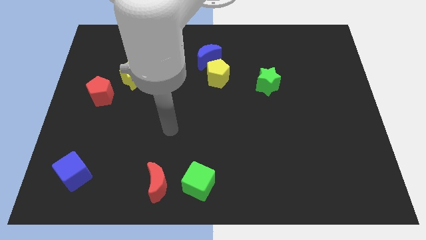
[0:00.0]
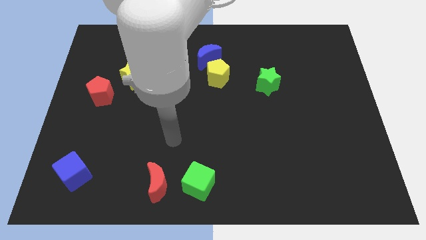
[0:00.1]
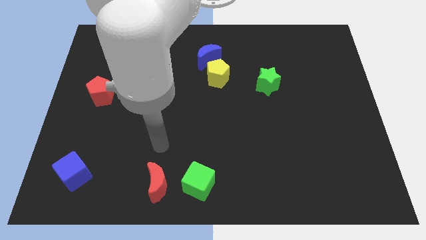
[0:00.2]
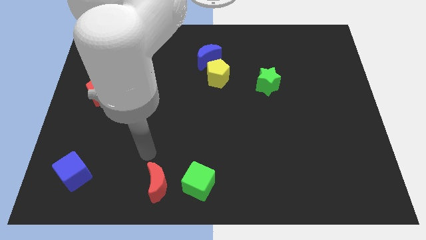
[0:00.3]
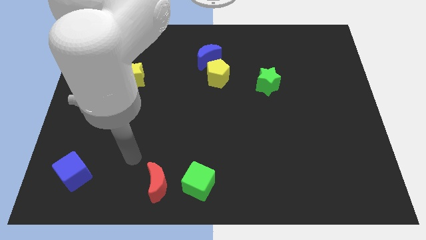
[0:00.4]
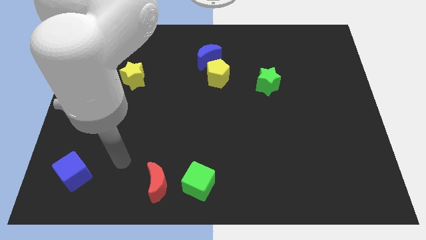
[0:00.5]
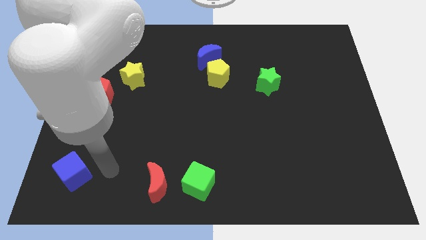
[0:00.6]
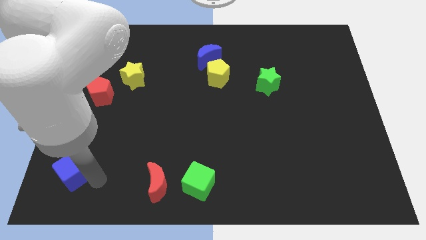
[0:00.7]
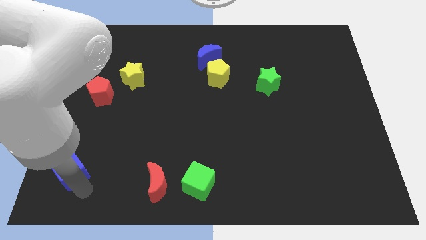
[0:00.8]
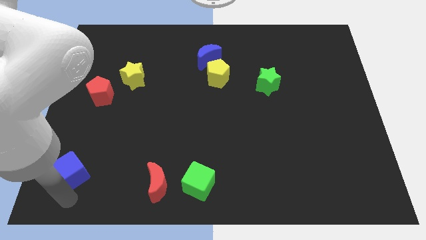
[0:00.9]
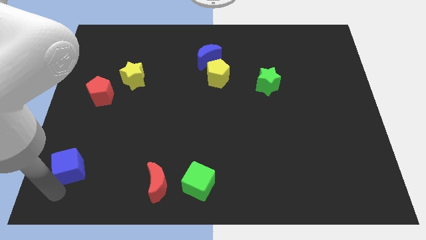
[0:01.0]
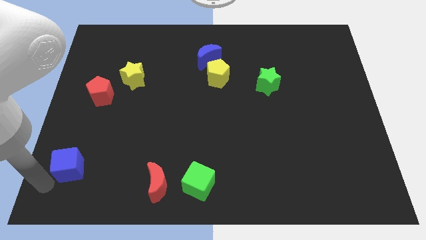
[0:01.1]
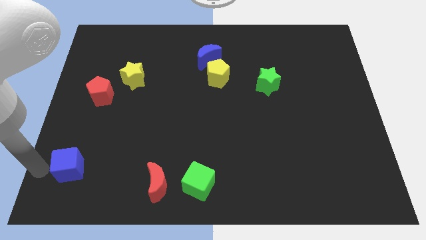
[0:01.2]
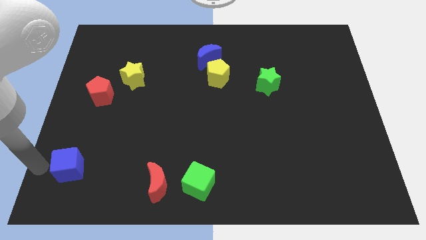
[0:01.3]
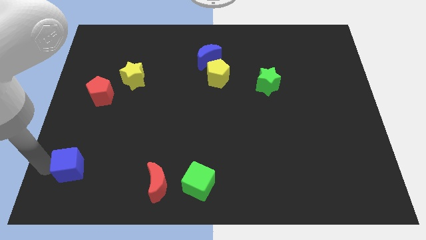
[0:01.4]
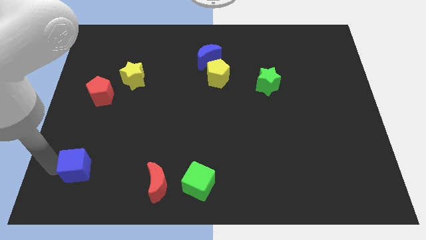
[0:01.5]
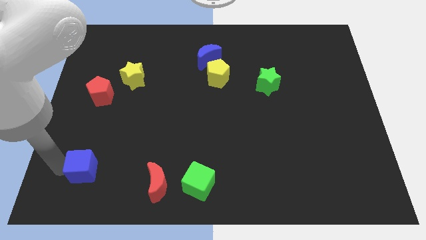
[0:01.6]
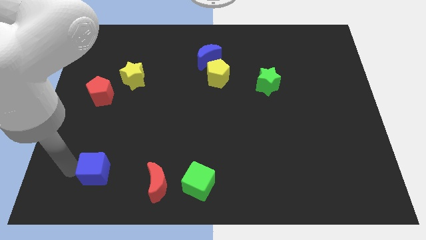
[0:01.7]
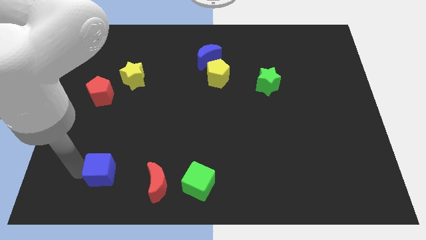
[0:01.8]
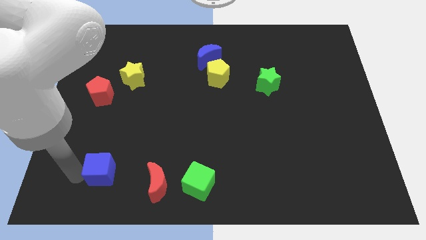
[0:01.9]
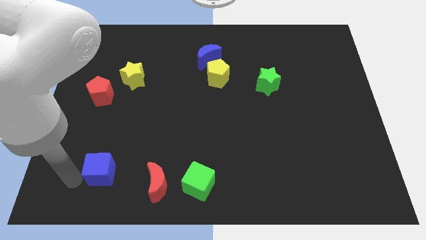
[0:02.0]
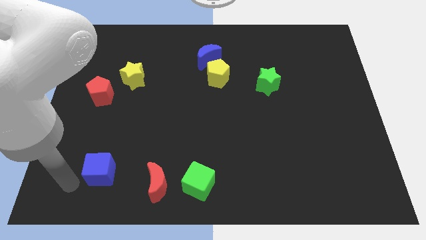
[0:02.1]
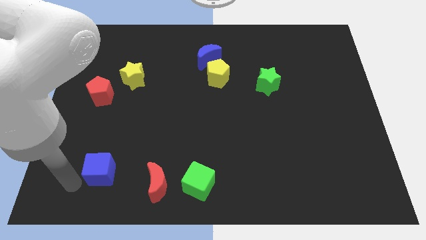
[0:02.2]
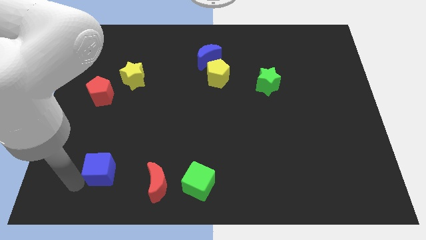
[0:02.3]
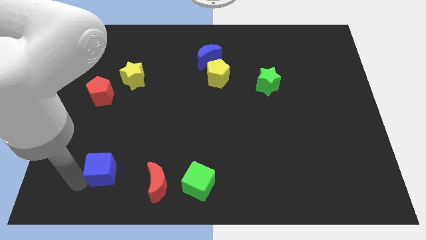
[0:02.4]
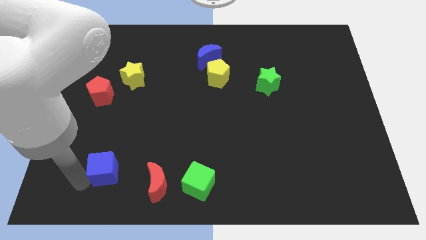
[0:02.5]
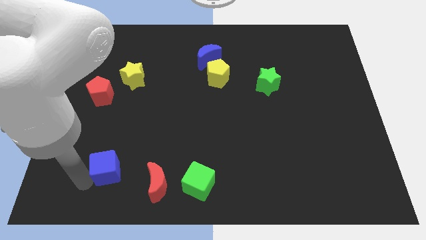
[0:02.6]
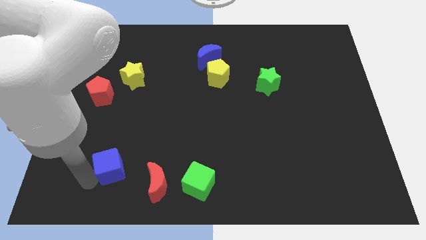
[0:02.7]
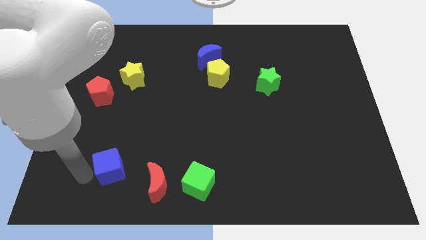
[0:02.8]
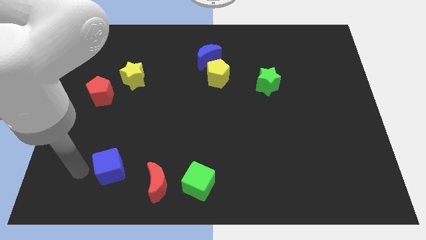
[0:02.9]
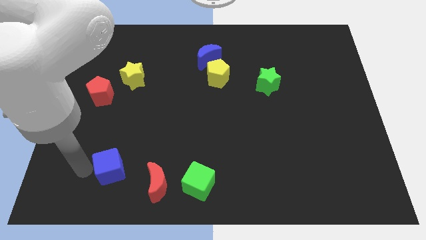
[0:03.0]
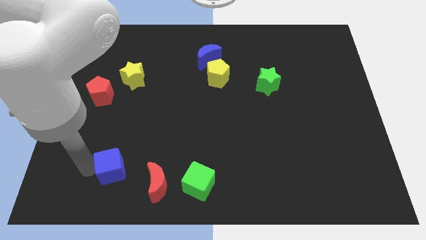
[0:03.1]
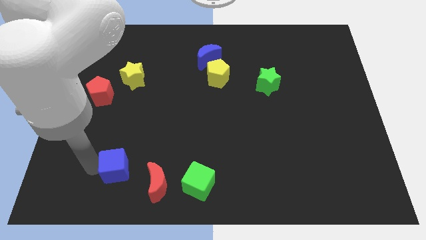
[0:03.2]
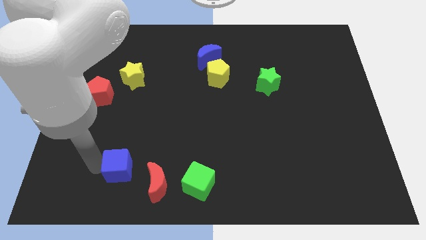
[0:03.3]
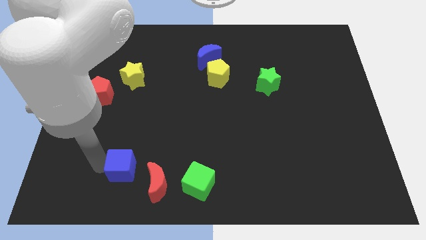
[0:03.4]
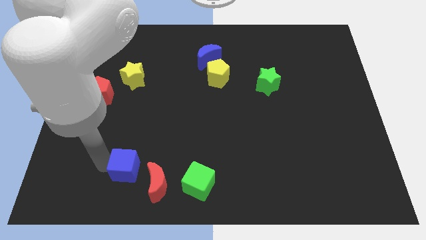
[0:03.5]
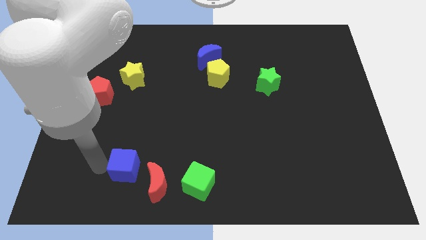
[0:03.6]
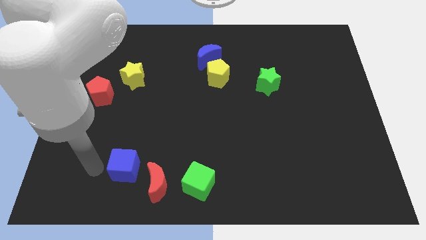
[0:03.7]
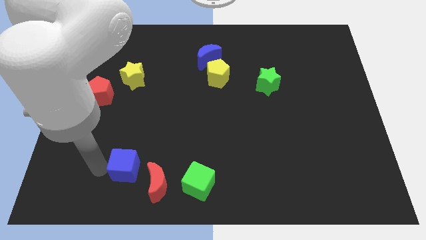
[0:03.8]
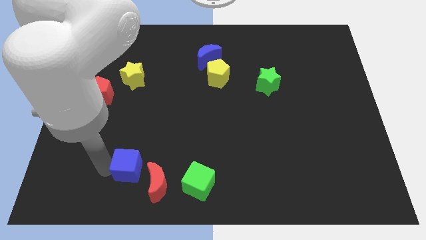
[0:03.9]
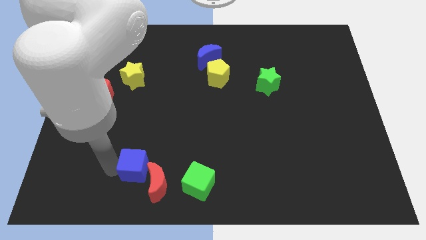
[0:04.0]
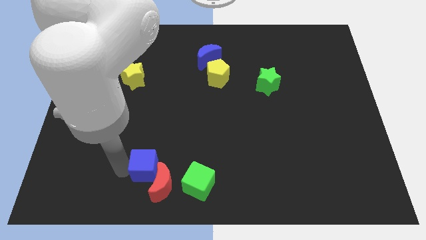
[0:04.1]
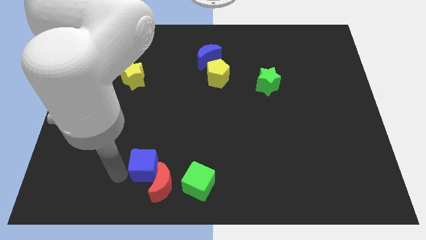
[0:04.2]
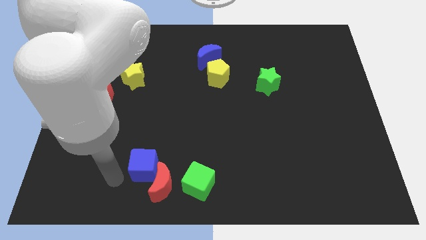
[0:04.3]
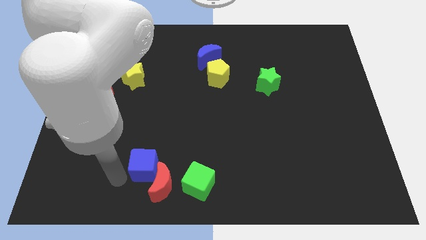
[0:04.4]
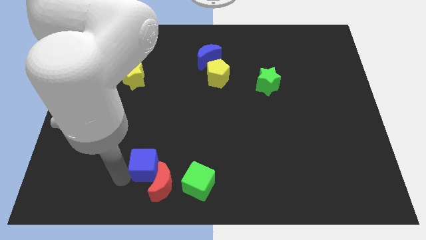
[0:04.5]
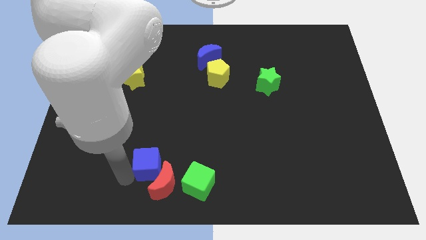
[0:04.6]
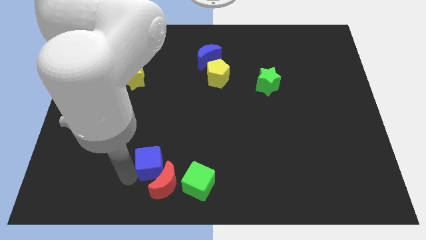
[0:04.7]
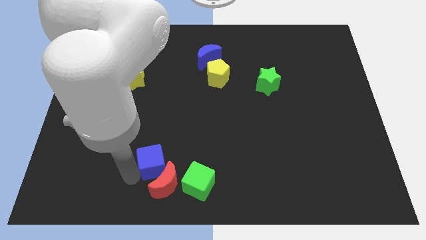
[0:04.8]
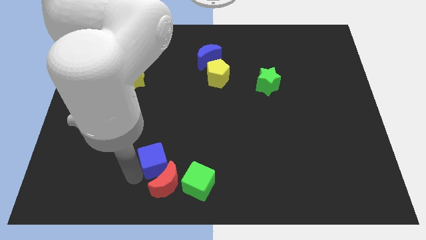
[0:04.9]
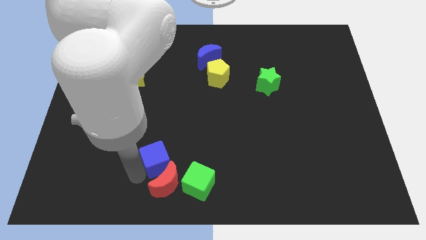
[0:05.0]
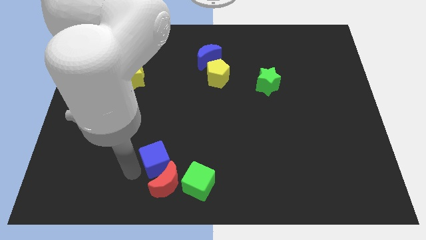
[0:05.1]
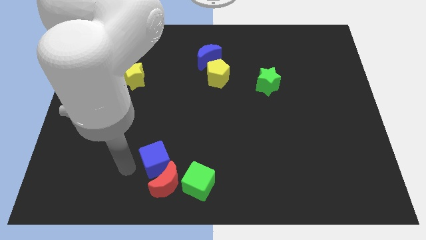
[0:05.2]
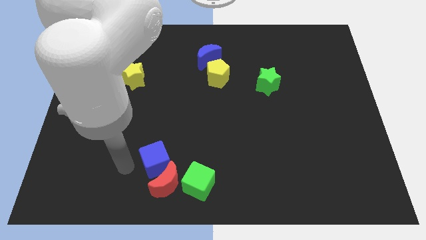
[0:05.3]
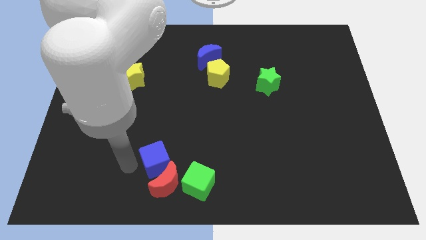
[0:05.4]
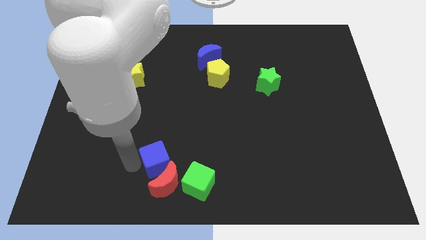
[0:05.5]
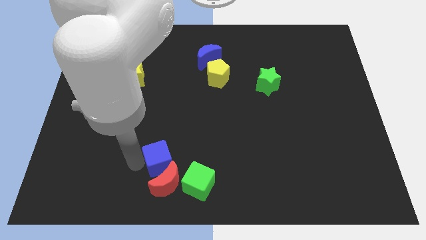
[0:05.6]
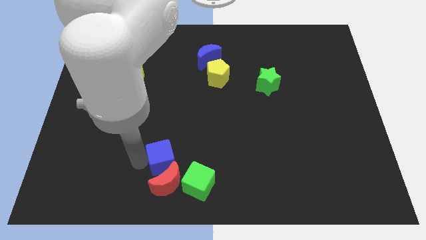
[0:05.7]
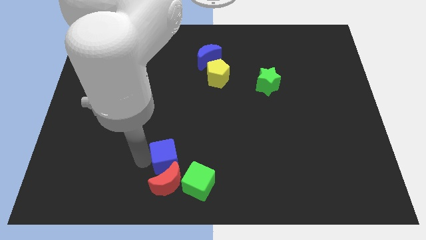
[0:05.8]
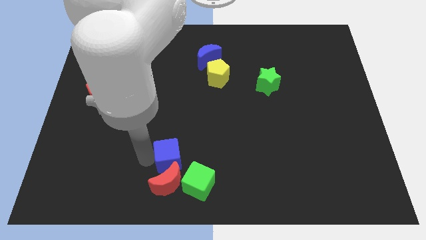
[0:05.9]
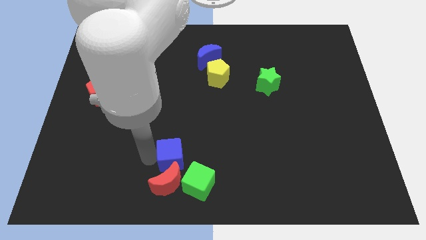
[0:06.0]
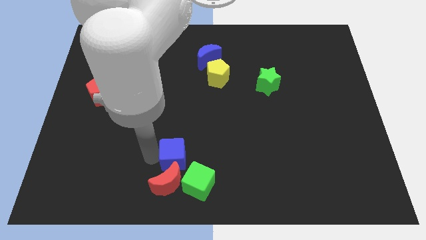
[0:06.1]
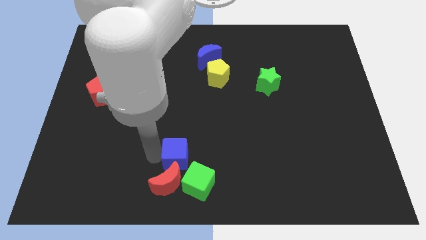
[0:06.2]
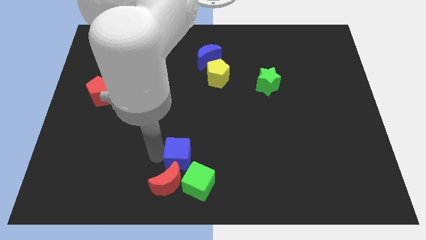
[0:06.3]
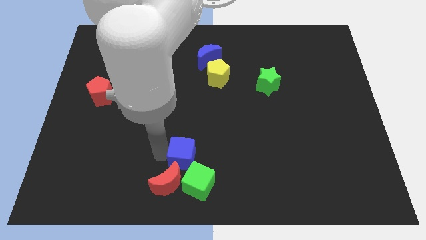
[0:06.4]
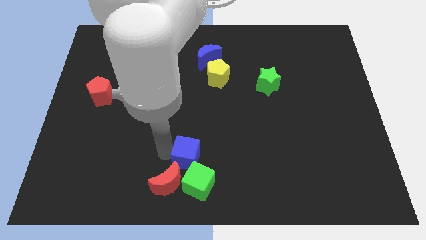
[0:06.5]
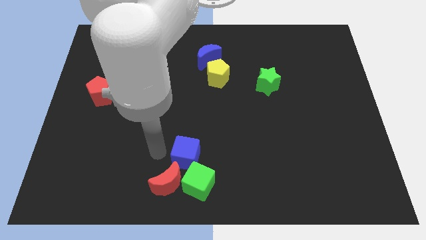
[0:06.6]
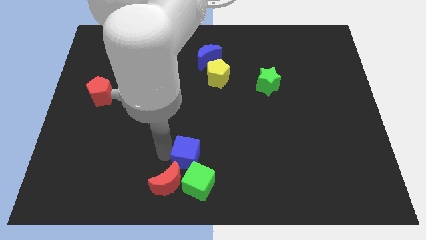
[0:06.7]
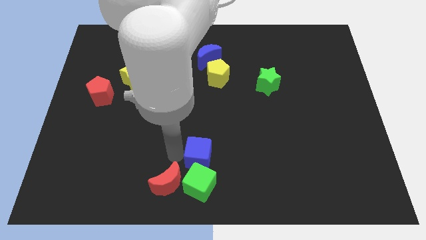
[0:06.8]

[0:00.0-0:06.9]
put the blue cube to the top right side of the green cube
